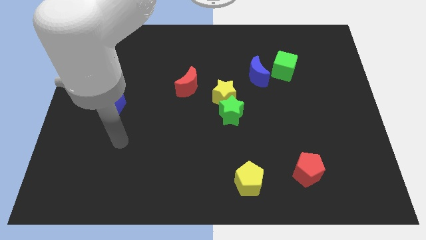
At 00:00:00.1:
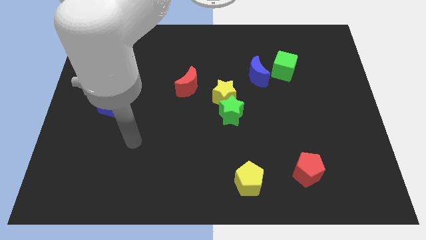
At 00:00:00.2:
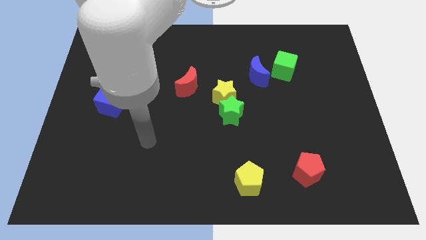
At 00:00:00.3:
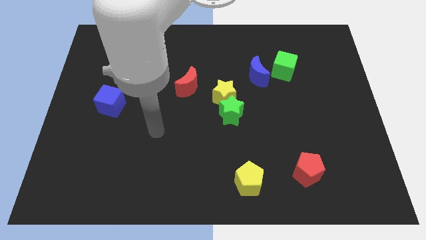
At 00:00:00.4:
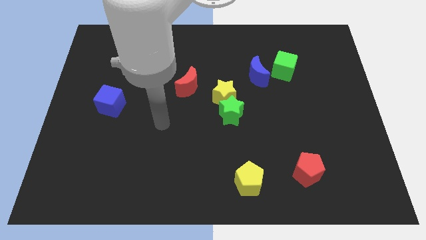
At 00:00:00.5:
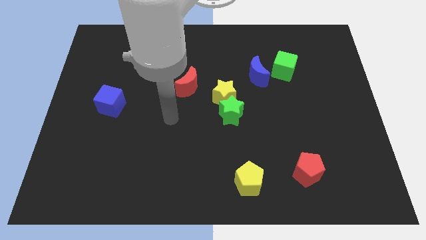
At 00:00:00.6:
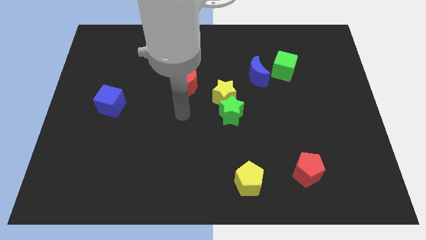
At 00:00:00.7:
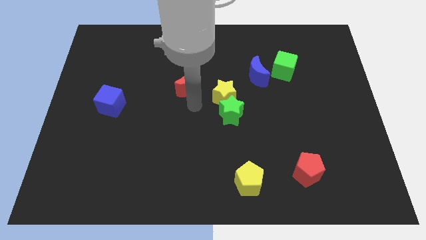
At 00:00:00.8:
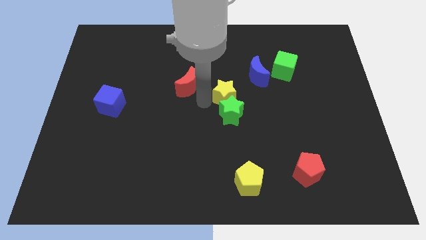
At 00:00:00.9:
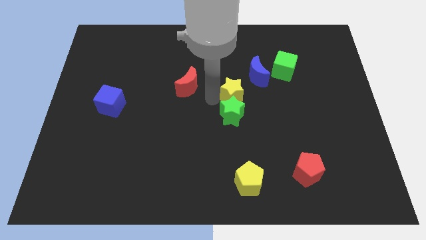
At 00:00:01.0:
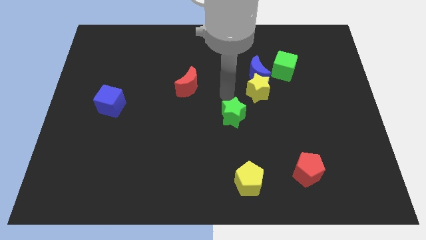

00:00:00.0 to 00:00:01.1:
pull the green star apart from the yellow star

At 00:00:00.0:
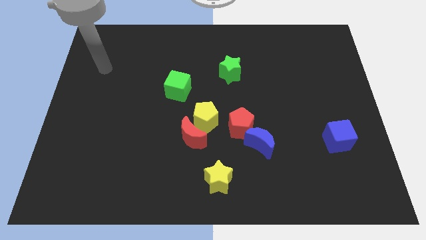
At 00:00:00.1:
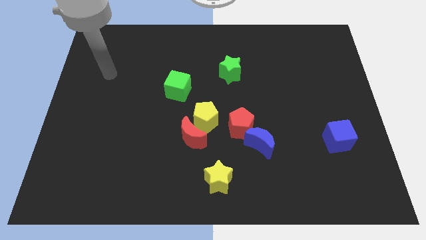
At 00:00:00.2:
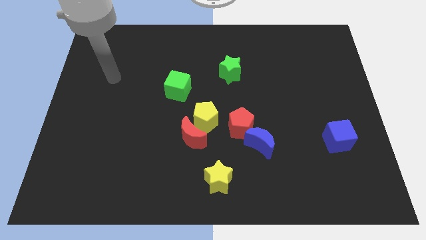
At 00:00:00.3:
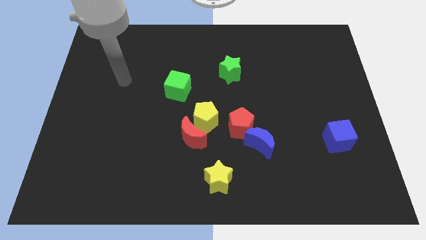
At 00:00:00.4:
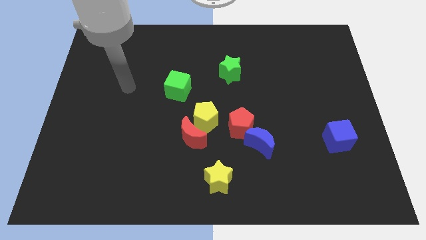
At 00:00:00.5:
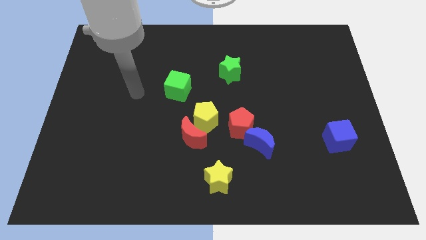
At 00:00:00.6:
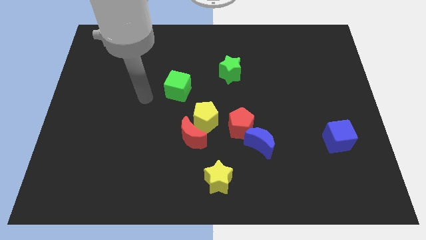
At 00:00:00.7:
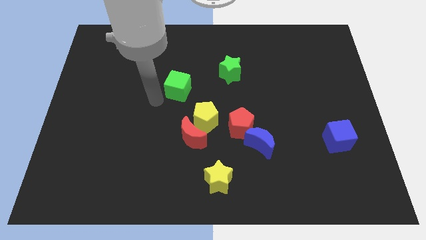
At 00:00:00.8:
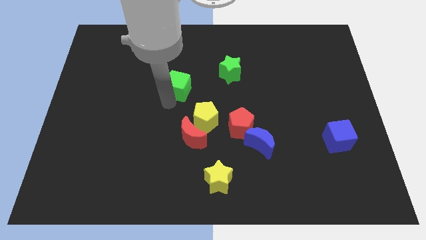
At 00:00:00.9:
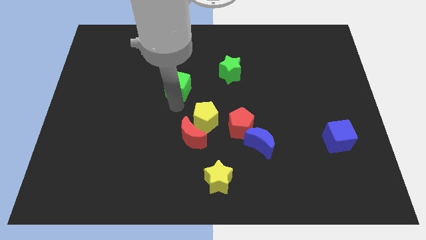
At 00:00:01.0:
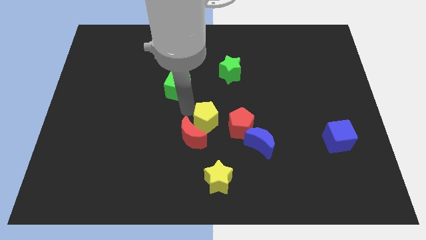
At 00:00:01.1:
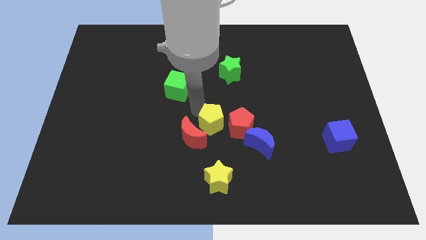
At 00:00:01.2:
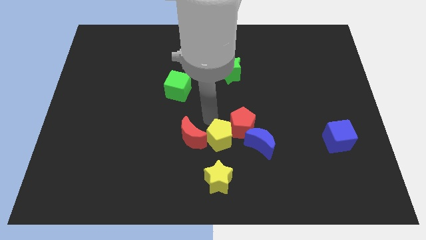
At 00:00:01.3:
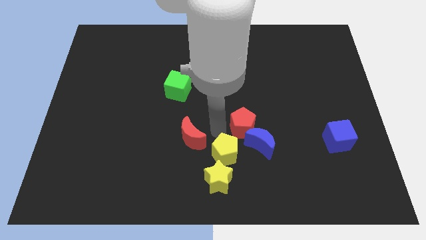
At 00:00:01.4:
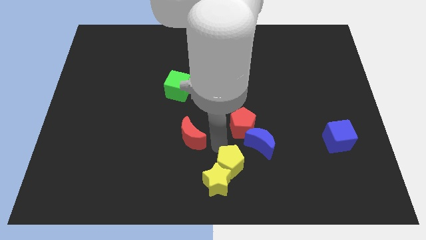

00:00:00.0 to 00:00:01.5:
separate the red moon from the yellow pentagon

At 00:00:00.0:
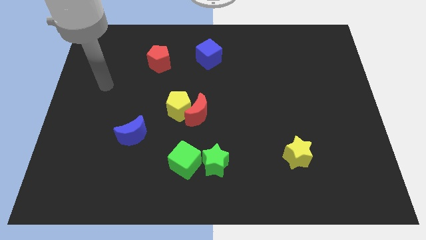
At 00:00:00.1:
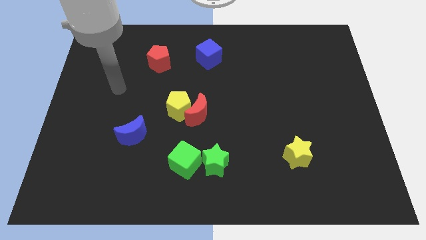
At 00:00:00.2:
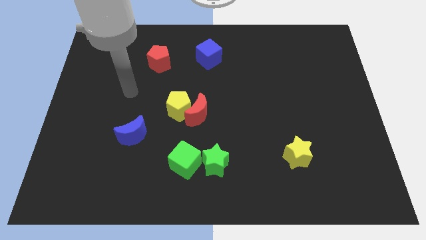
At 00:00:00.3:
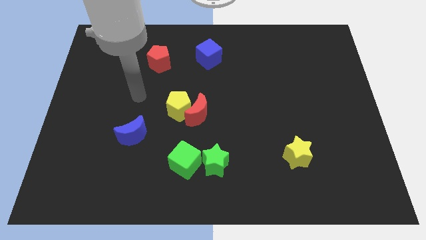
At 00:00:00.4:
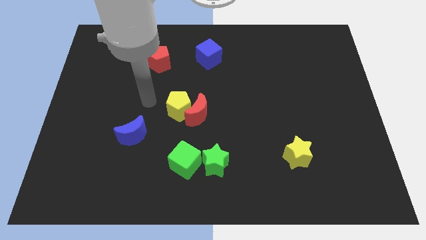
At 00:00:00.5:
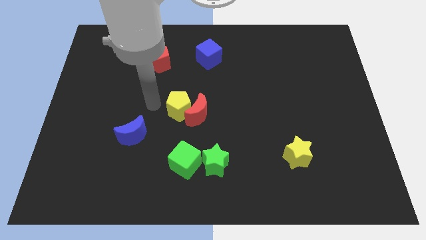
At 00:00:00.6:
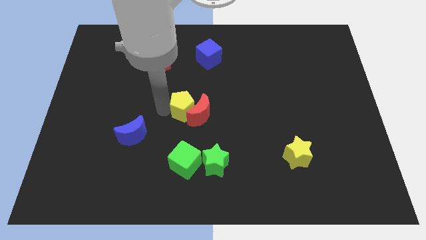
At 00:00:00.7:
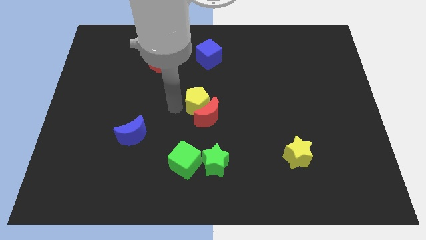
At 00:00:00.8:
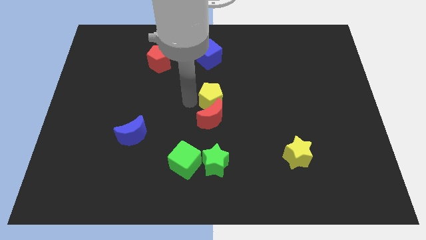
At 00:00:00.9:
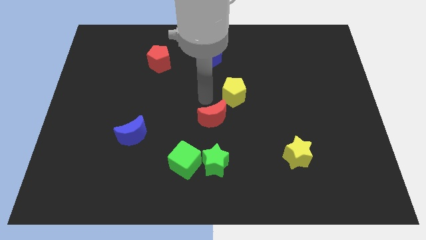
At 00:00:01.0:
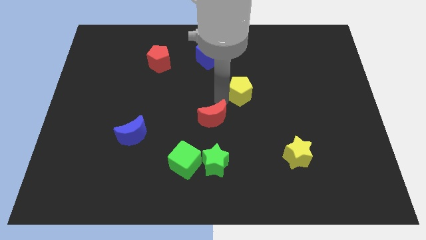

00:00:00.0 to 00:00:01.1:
pull the red moon apart from the yellow pentagon

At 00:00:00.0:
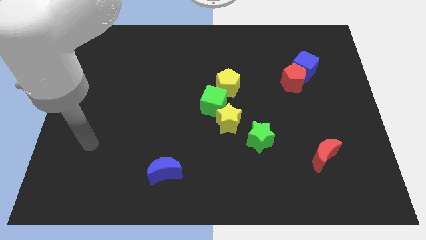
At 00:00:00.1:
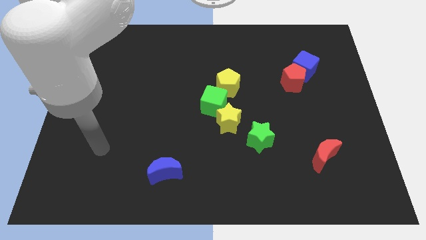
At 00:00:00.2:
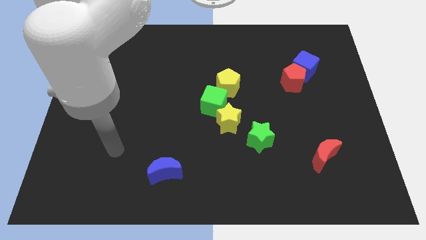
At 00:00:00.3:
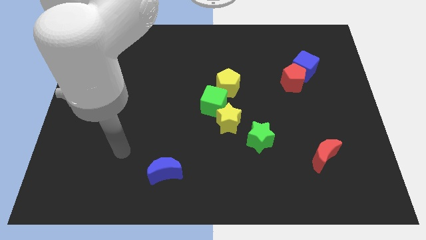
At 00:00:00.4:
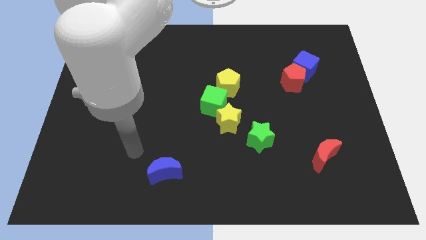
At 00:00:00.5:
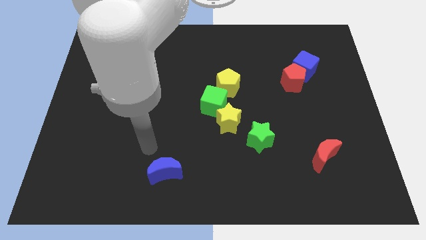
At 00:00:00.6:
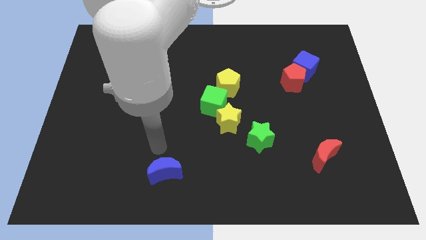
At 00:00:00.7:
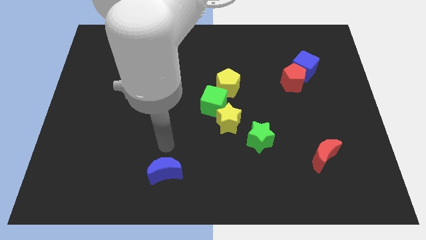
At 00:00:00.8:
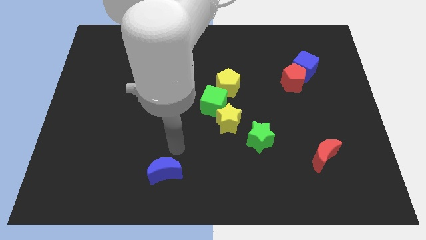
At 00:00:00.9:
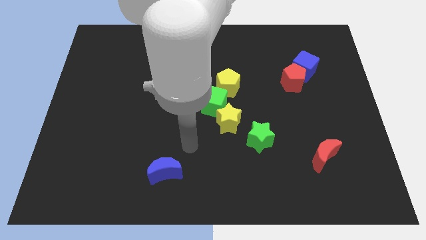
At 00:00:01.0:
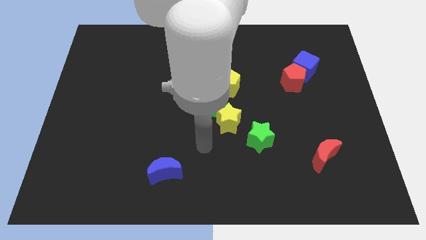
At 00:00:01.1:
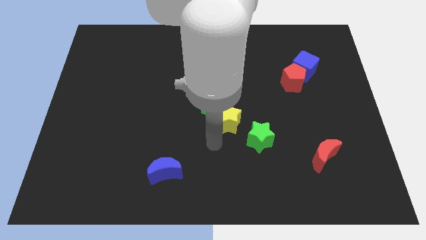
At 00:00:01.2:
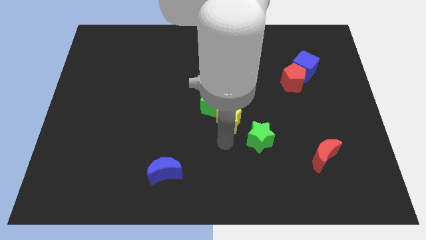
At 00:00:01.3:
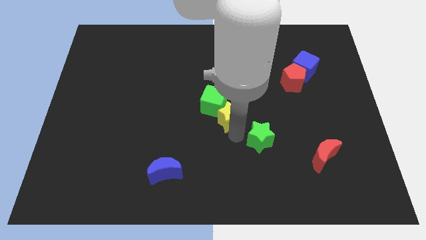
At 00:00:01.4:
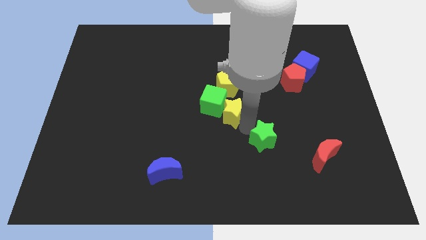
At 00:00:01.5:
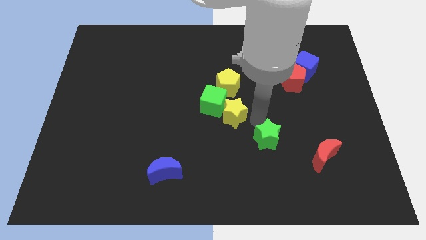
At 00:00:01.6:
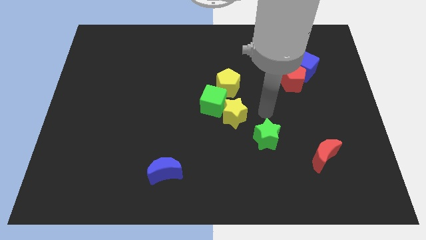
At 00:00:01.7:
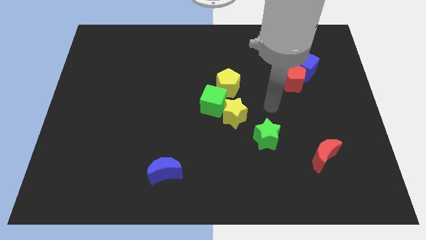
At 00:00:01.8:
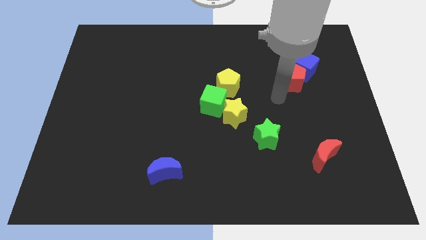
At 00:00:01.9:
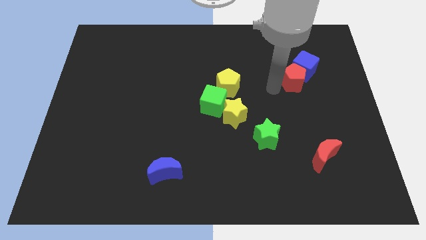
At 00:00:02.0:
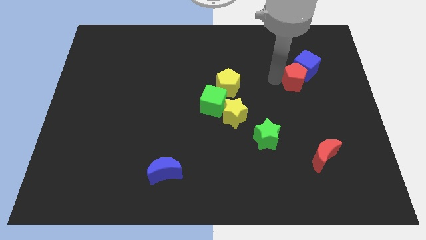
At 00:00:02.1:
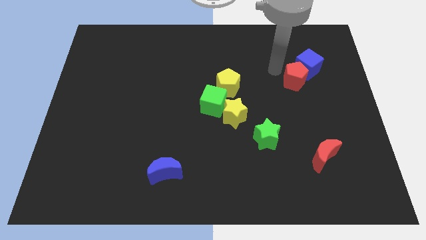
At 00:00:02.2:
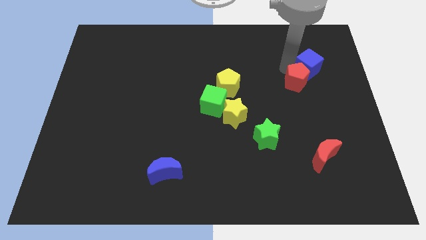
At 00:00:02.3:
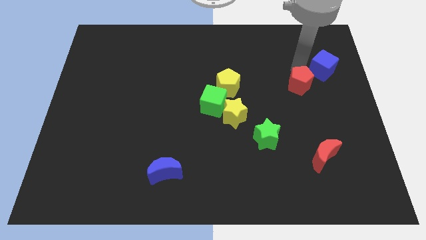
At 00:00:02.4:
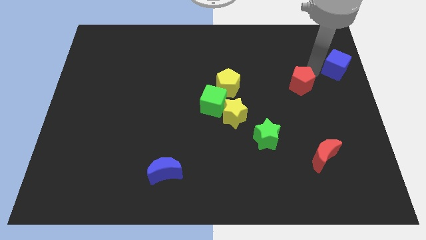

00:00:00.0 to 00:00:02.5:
separate the red pentagon from the blue cube

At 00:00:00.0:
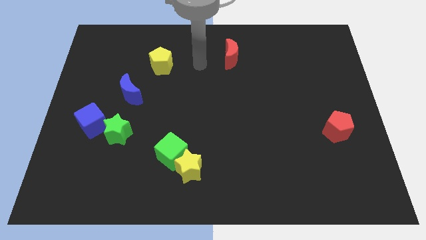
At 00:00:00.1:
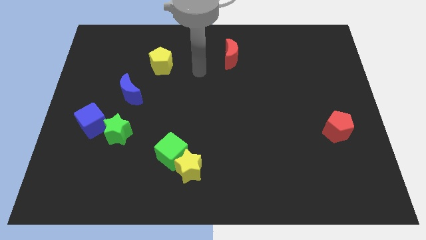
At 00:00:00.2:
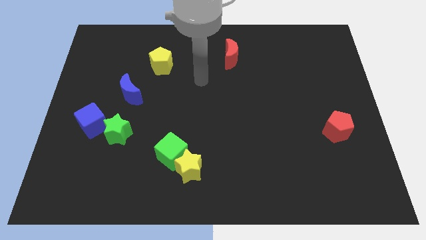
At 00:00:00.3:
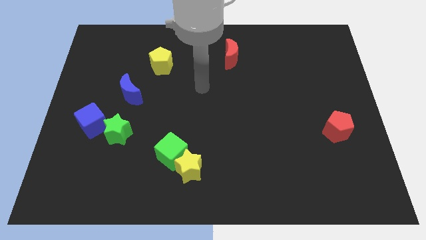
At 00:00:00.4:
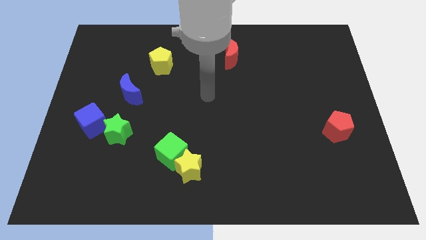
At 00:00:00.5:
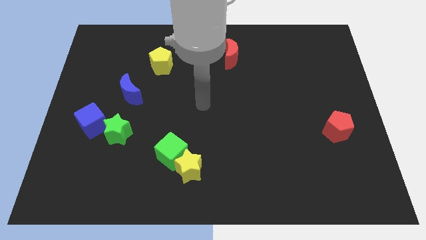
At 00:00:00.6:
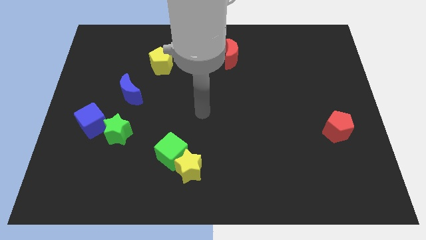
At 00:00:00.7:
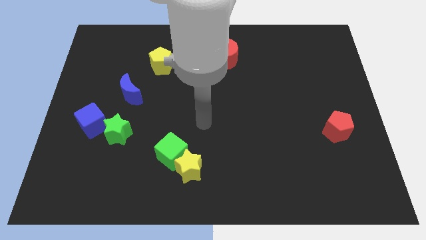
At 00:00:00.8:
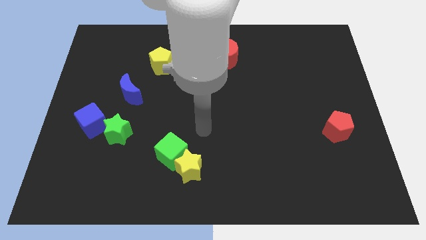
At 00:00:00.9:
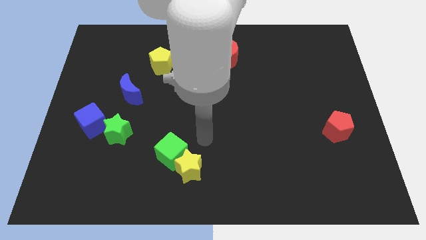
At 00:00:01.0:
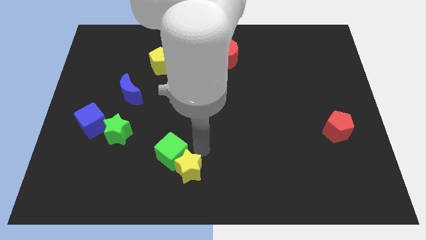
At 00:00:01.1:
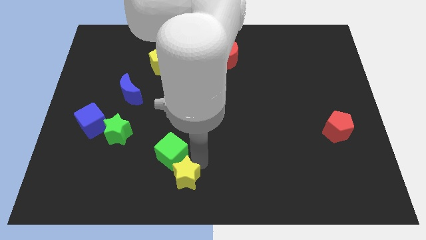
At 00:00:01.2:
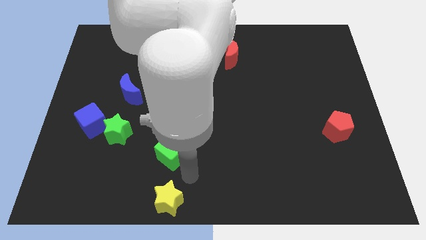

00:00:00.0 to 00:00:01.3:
separate the green cube from the yellow star

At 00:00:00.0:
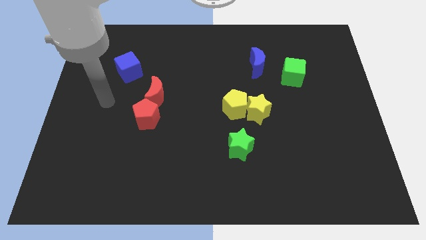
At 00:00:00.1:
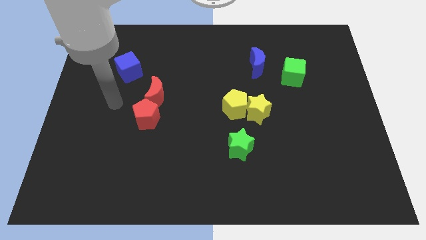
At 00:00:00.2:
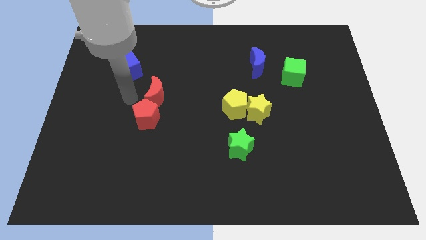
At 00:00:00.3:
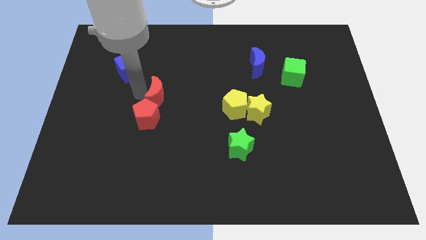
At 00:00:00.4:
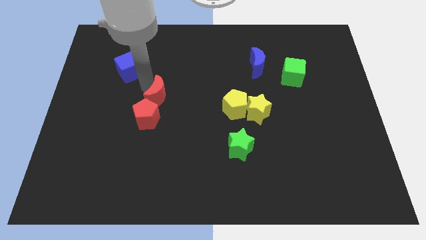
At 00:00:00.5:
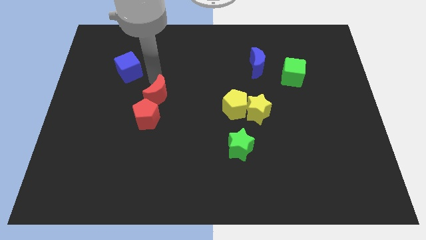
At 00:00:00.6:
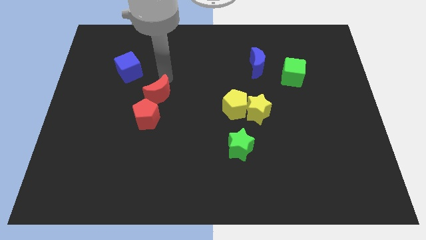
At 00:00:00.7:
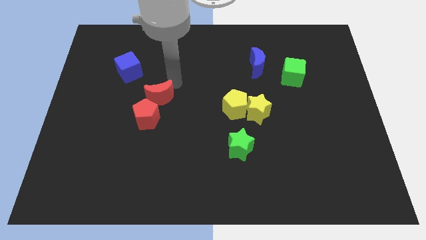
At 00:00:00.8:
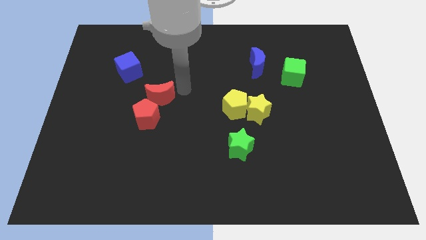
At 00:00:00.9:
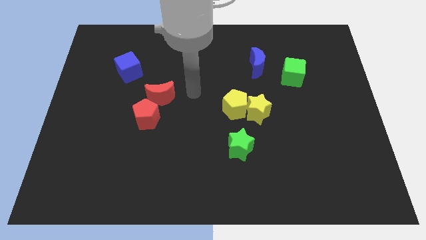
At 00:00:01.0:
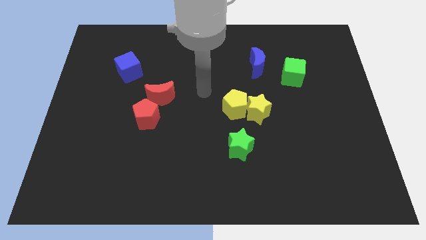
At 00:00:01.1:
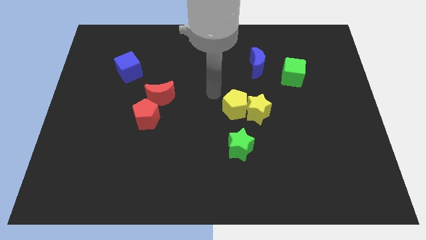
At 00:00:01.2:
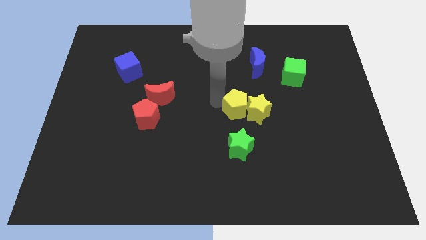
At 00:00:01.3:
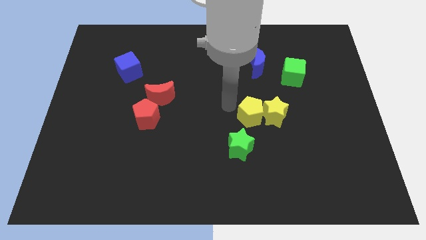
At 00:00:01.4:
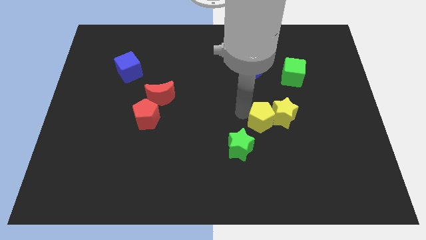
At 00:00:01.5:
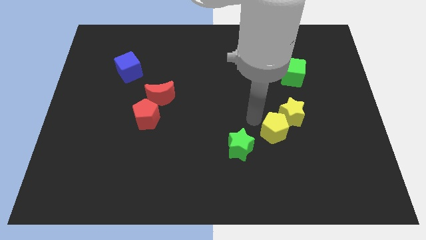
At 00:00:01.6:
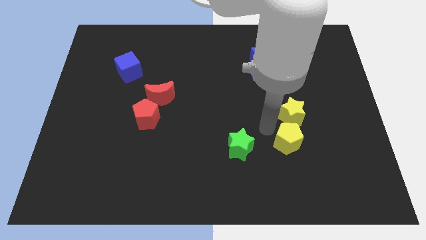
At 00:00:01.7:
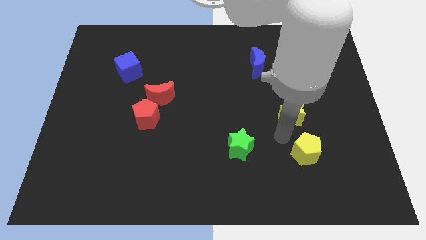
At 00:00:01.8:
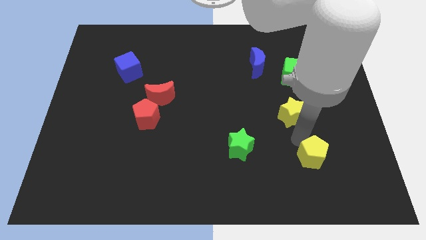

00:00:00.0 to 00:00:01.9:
separate the yellow star from the yellow pentagon
